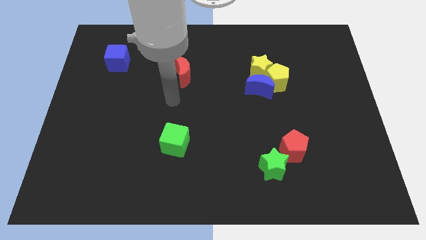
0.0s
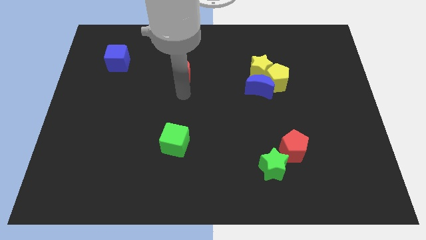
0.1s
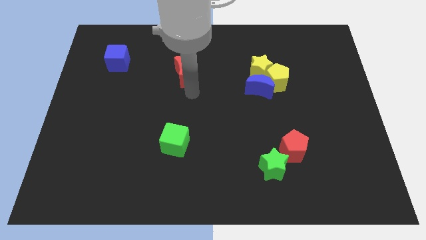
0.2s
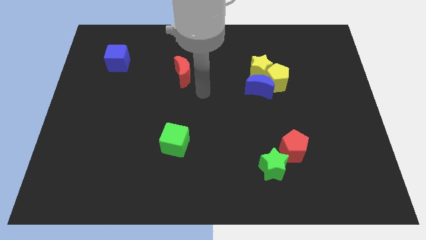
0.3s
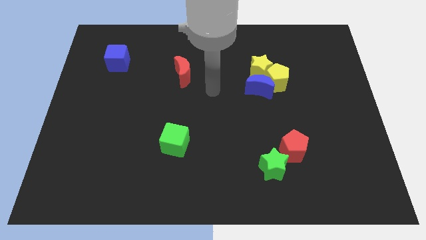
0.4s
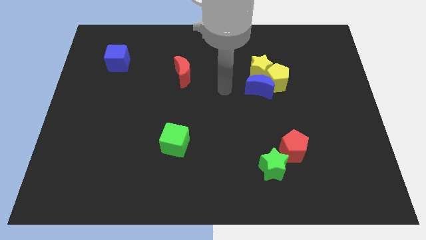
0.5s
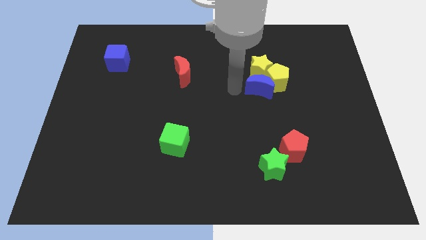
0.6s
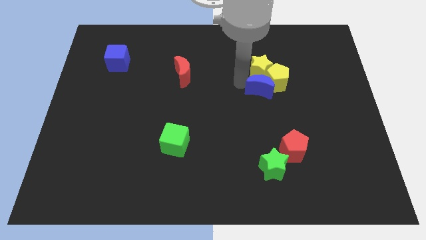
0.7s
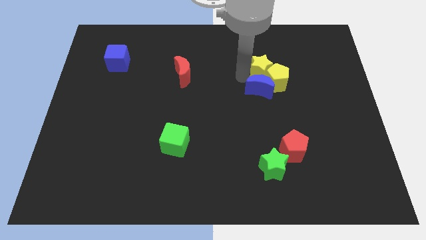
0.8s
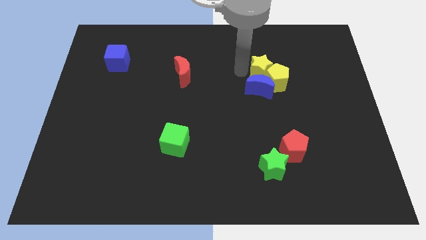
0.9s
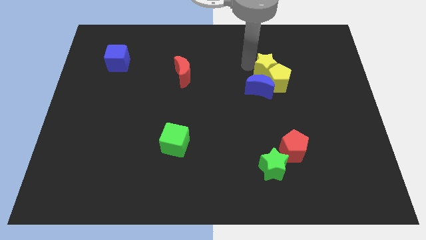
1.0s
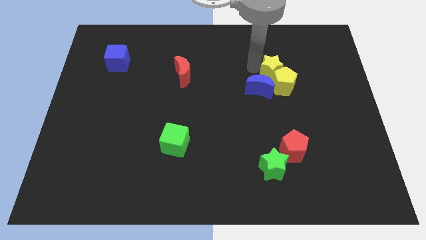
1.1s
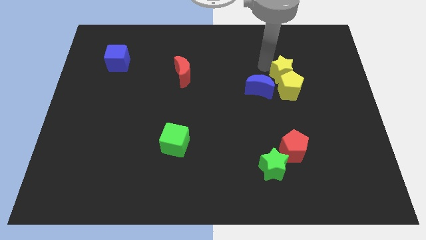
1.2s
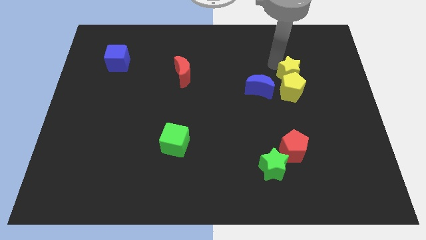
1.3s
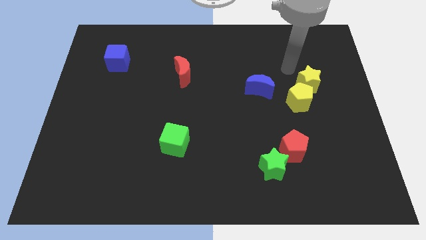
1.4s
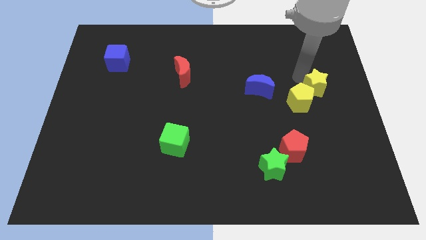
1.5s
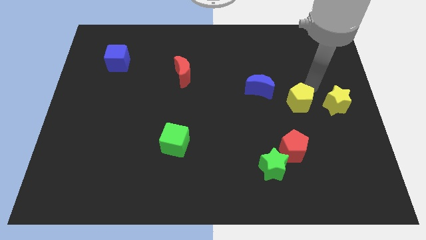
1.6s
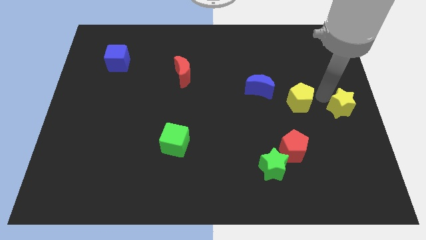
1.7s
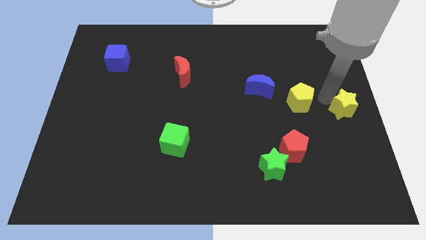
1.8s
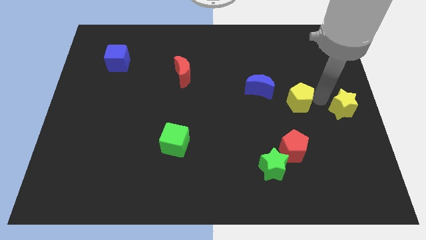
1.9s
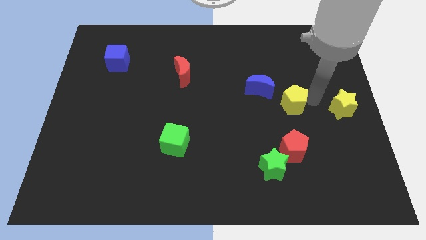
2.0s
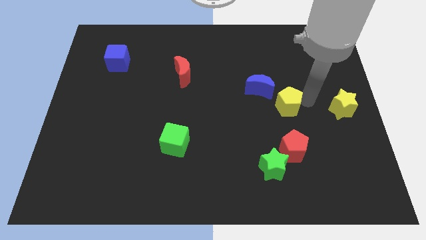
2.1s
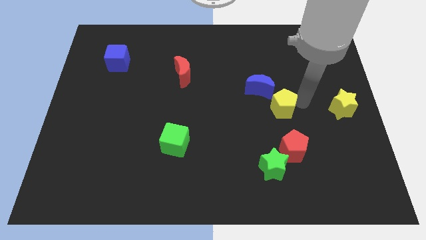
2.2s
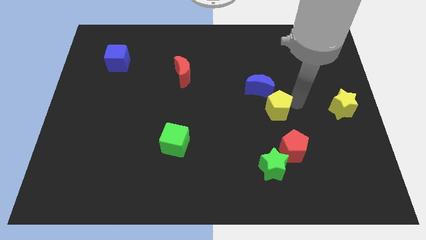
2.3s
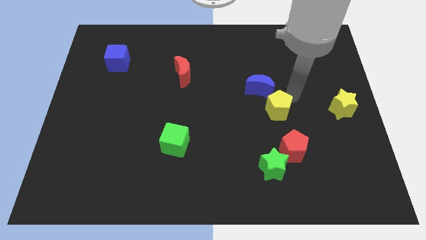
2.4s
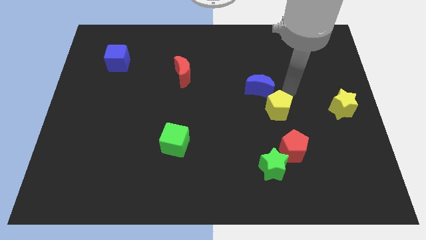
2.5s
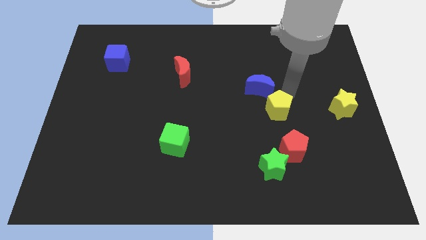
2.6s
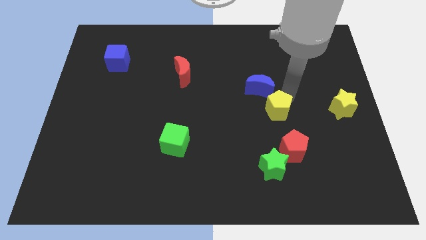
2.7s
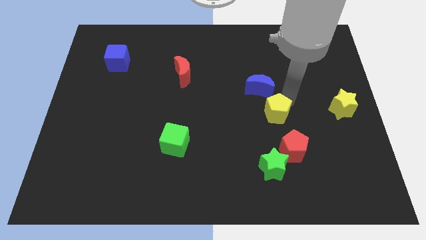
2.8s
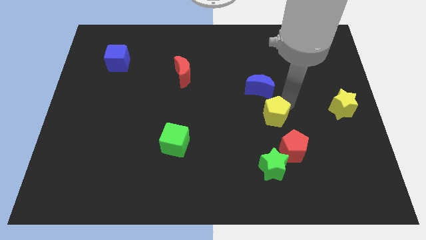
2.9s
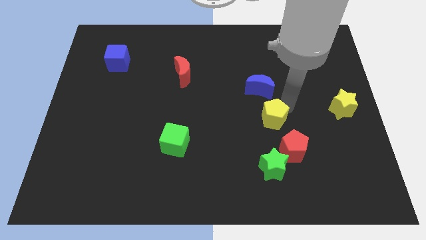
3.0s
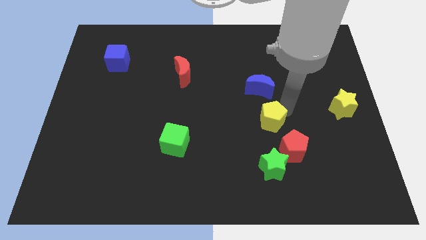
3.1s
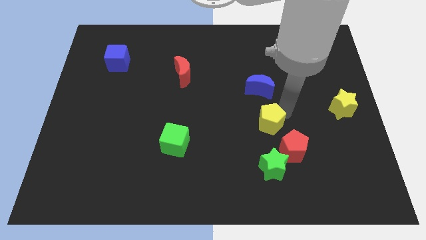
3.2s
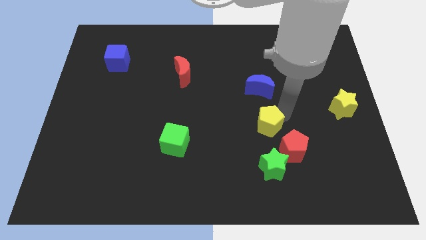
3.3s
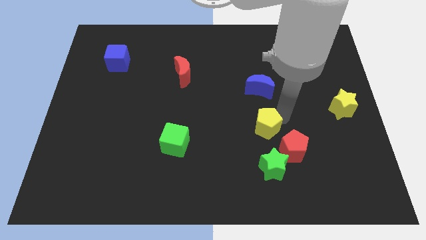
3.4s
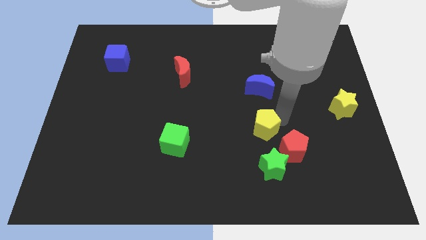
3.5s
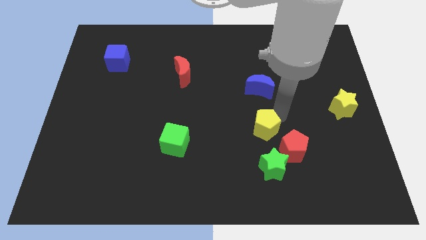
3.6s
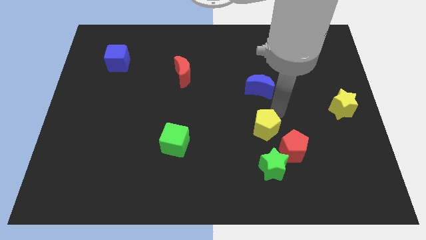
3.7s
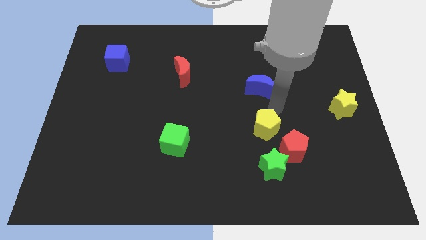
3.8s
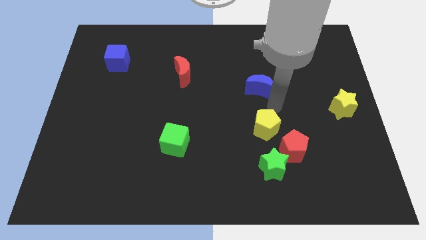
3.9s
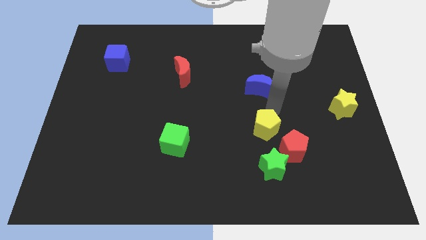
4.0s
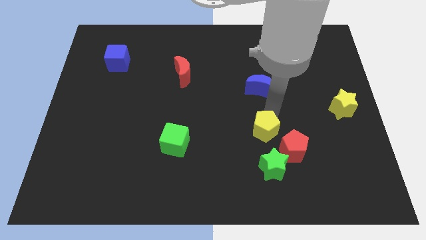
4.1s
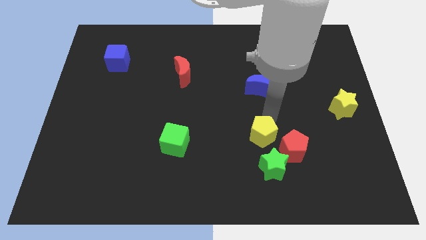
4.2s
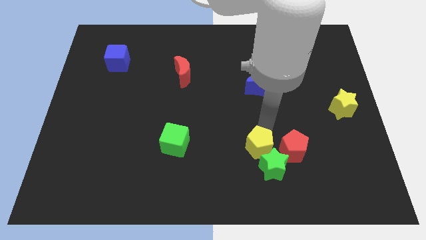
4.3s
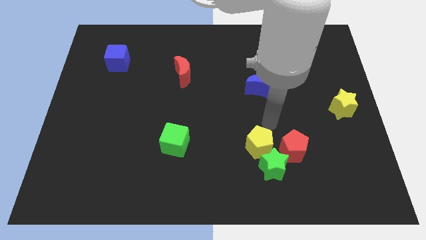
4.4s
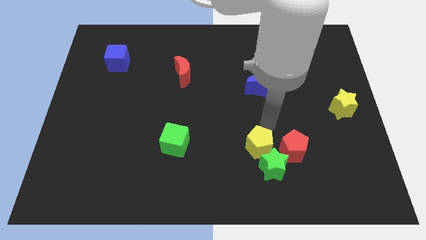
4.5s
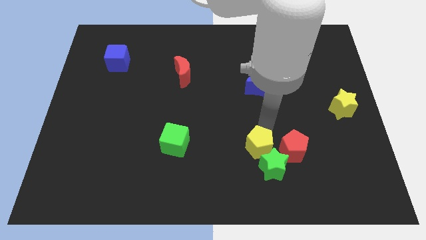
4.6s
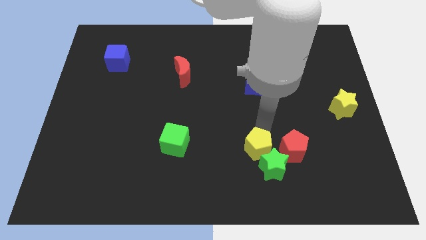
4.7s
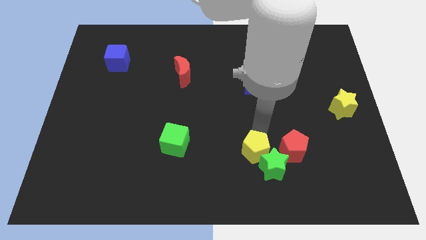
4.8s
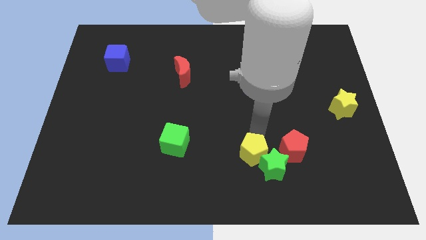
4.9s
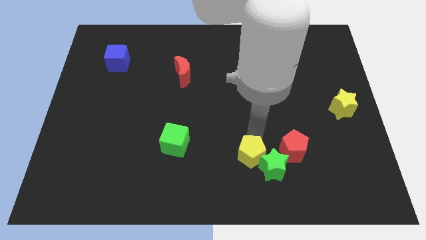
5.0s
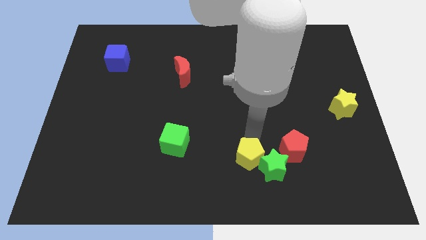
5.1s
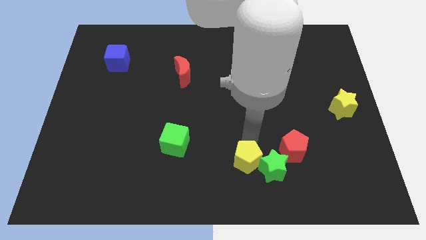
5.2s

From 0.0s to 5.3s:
put the yellow pentagon to the bottom side

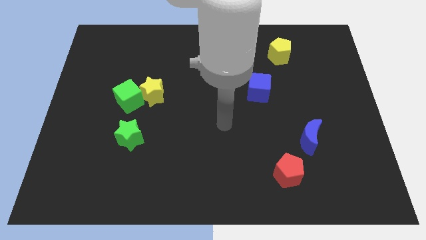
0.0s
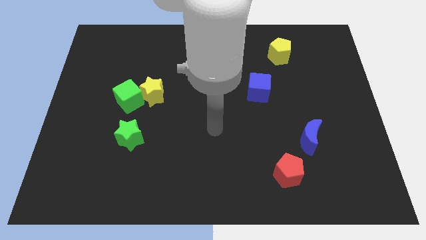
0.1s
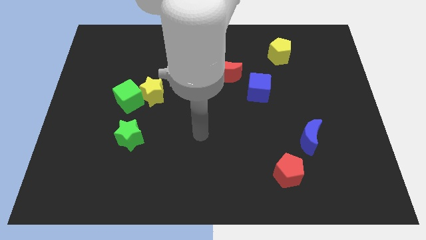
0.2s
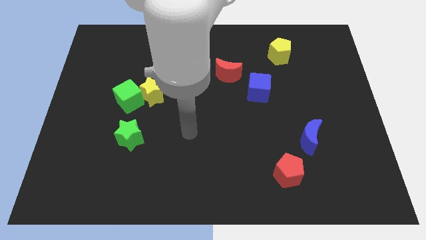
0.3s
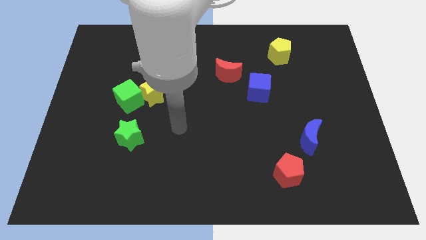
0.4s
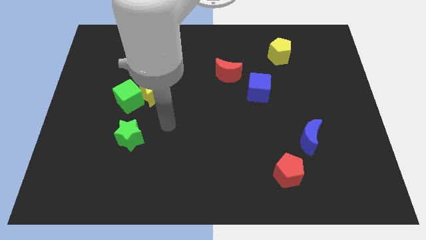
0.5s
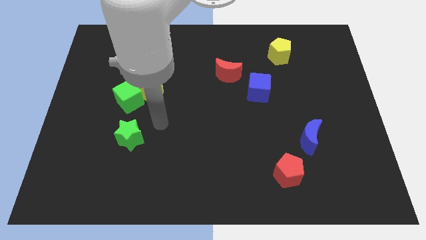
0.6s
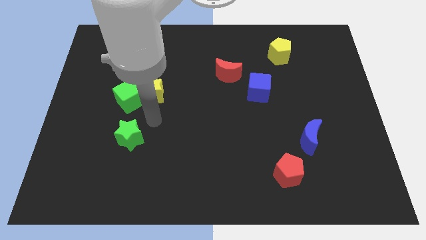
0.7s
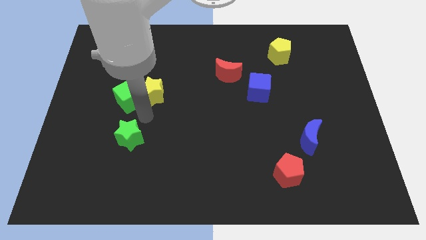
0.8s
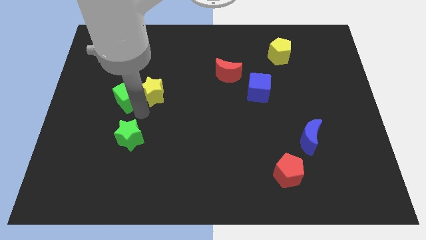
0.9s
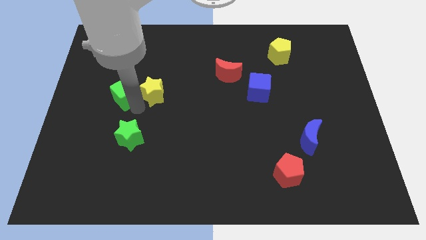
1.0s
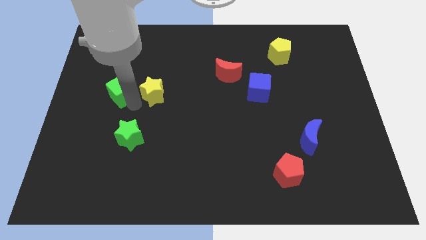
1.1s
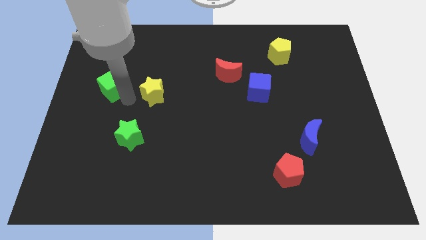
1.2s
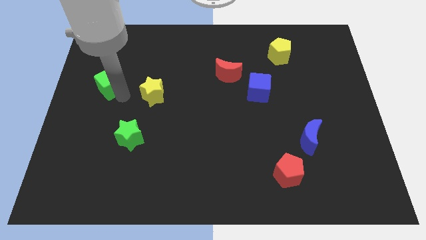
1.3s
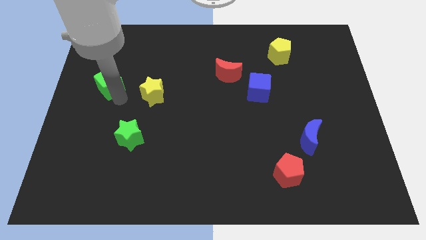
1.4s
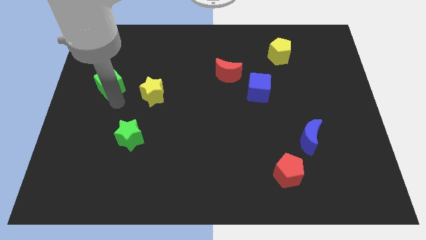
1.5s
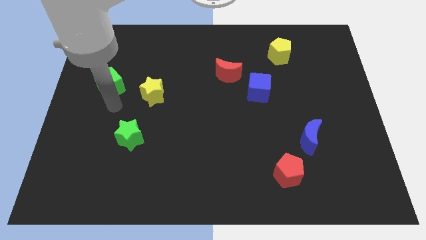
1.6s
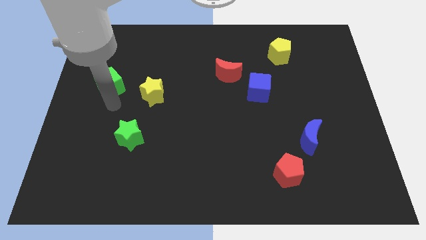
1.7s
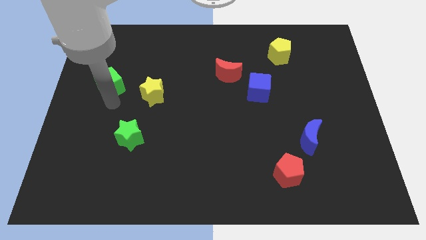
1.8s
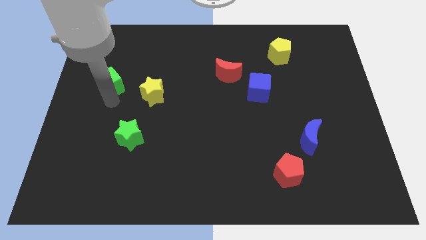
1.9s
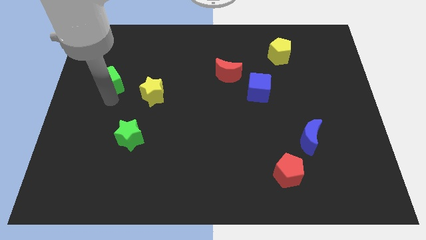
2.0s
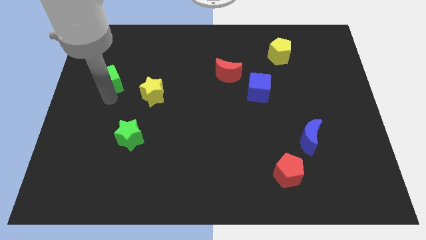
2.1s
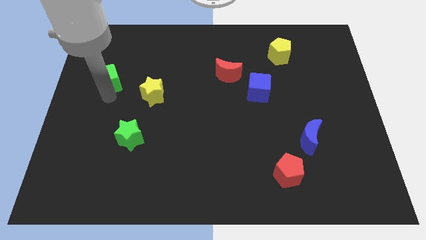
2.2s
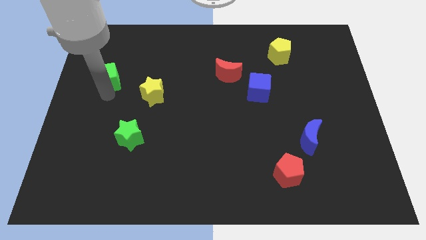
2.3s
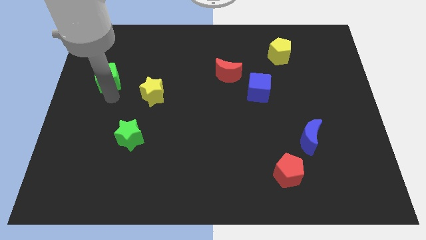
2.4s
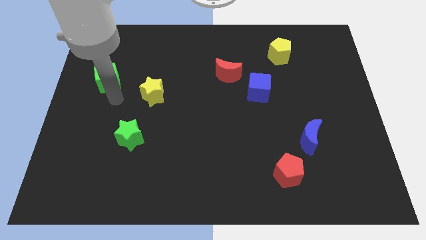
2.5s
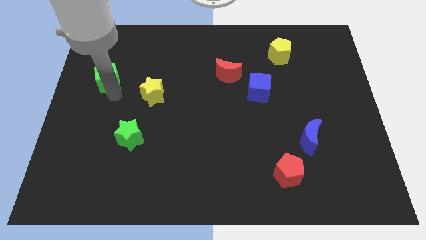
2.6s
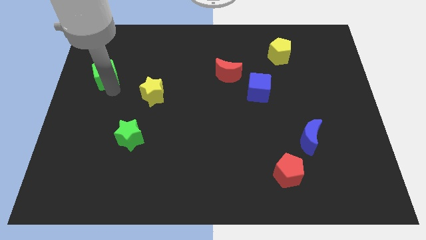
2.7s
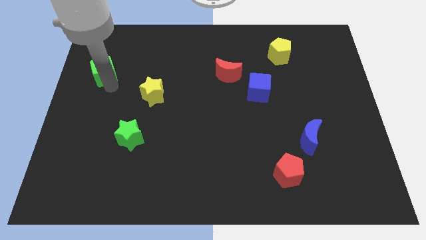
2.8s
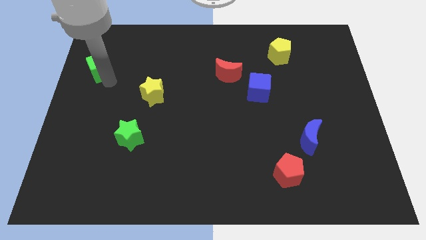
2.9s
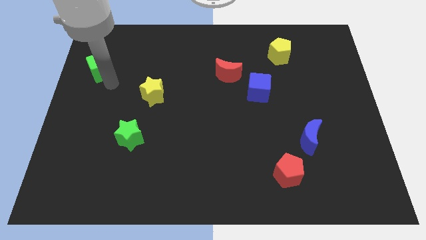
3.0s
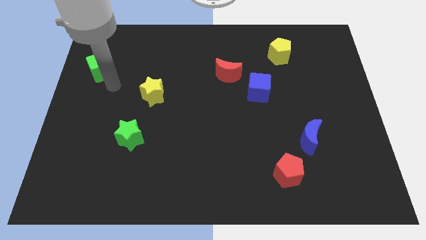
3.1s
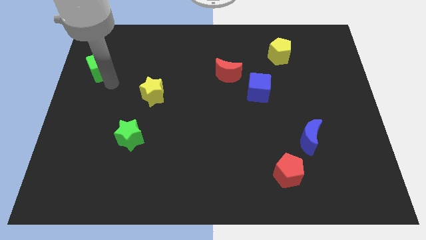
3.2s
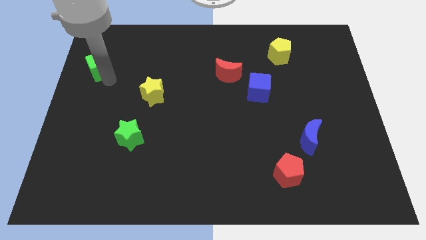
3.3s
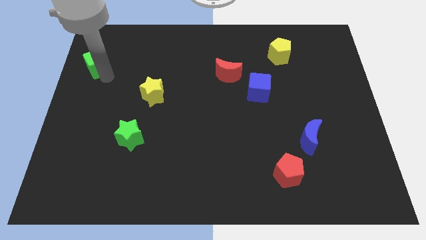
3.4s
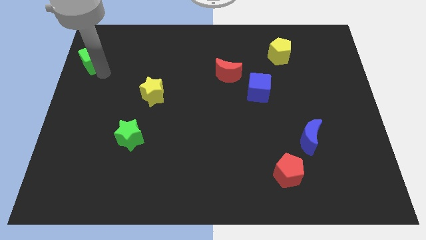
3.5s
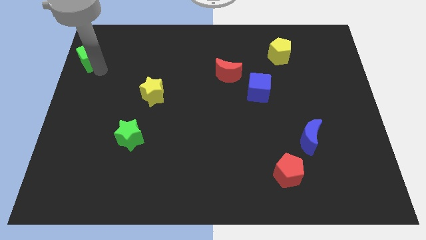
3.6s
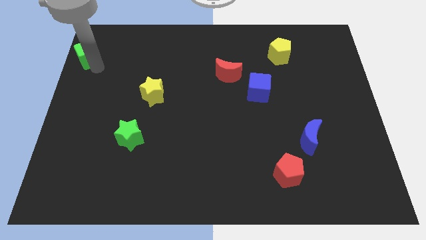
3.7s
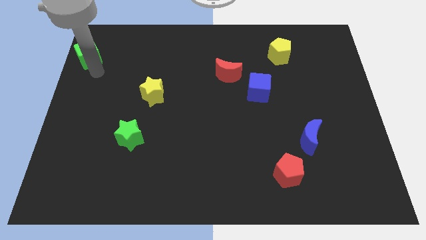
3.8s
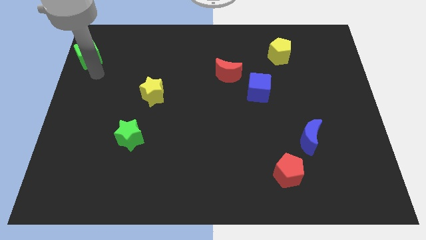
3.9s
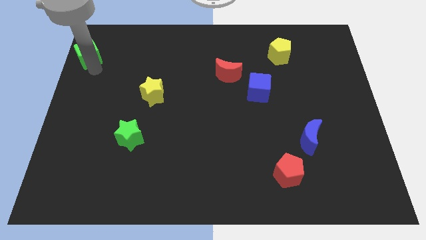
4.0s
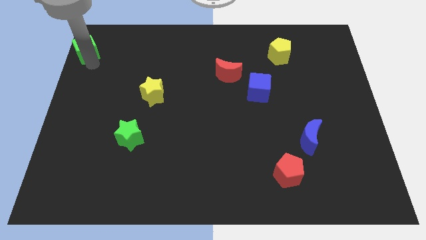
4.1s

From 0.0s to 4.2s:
move the green cube to the top left of the board
